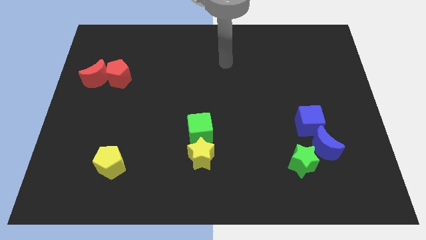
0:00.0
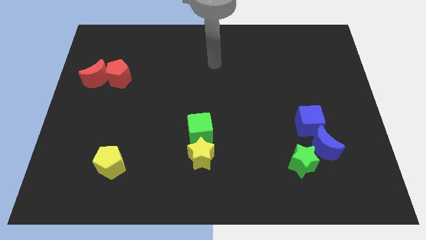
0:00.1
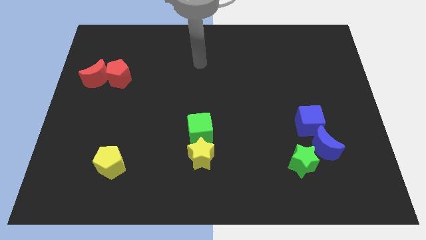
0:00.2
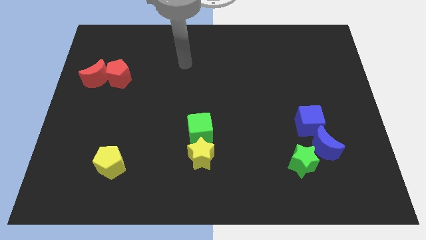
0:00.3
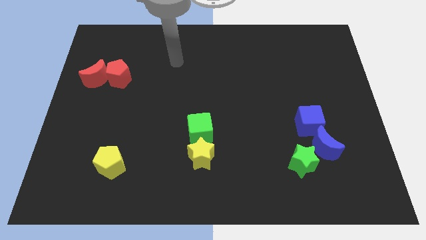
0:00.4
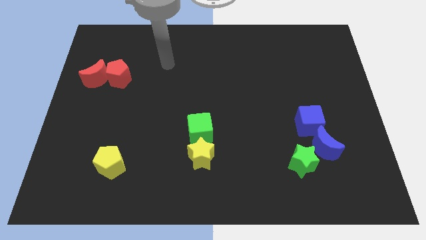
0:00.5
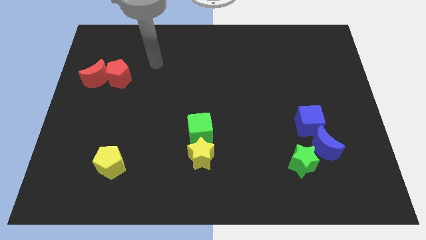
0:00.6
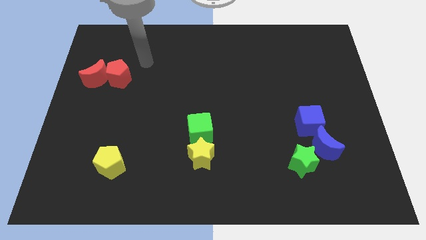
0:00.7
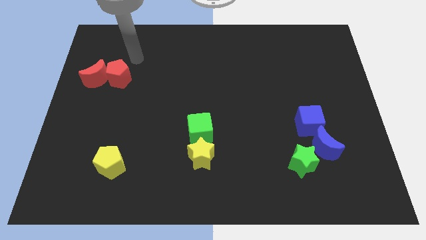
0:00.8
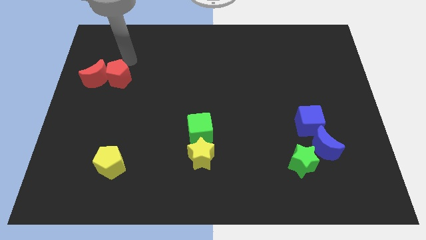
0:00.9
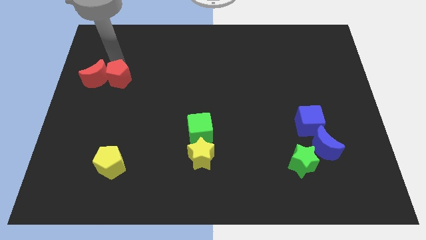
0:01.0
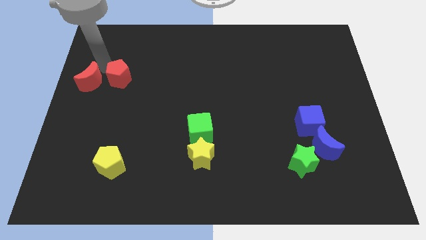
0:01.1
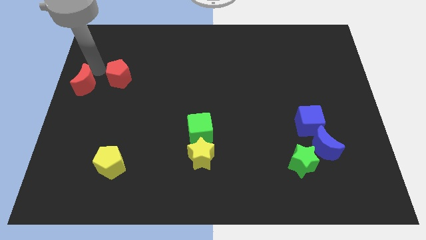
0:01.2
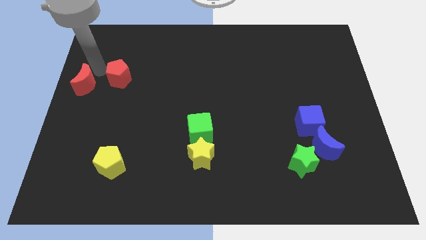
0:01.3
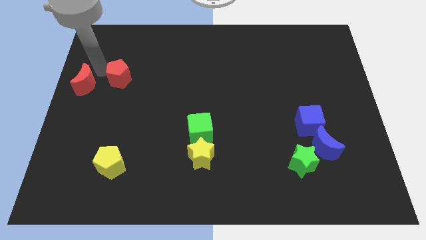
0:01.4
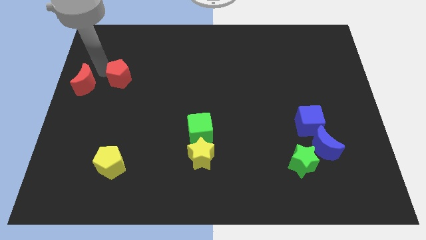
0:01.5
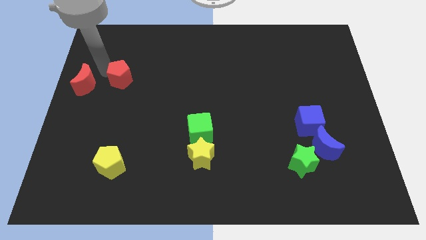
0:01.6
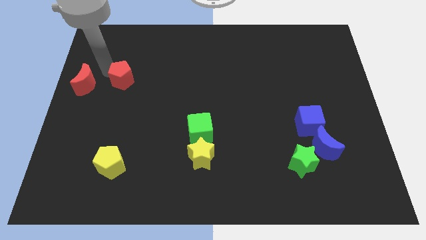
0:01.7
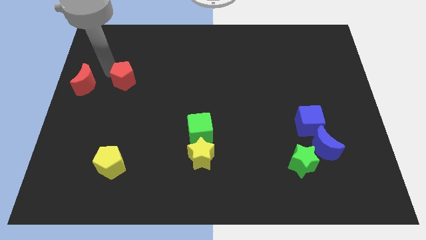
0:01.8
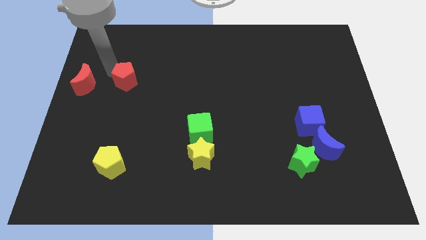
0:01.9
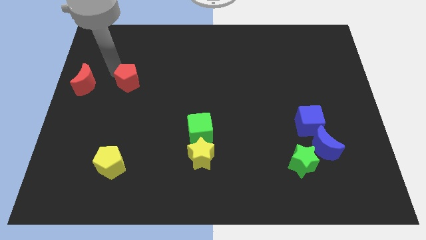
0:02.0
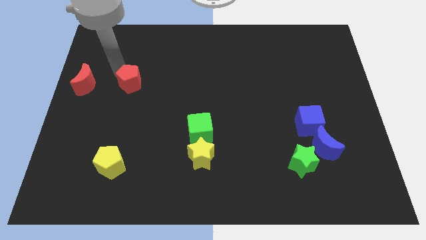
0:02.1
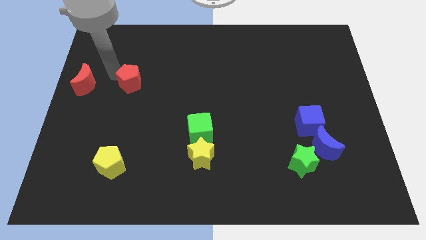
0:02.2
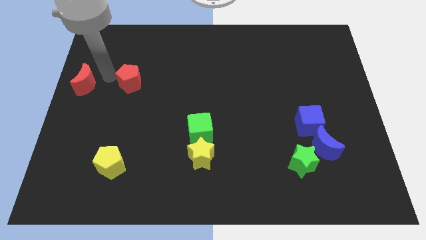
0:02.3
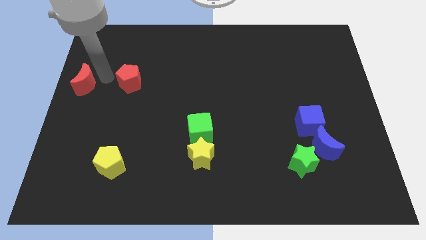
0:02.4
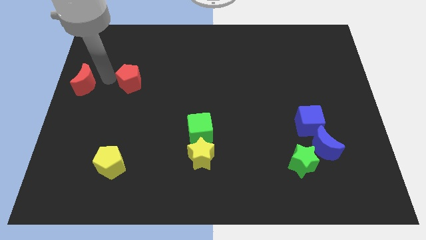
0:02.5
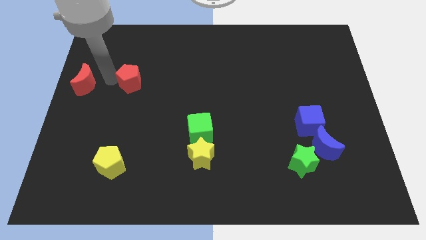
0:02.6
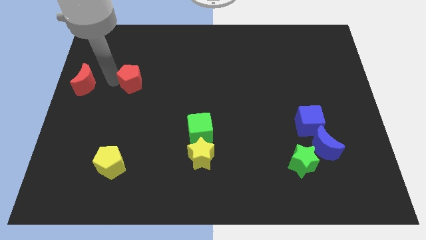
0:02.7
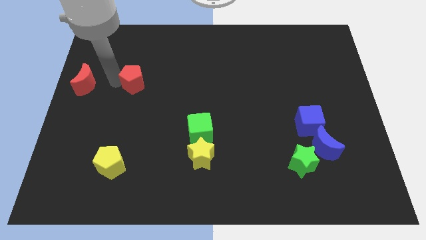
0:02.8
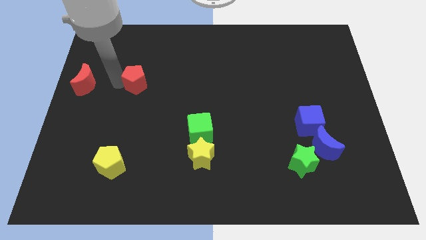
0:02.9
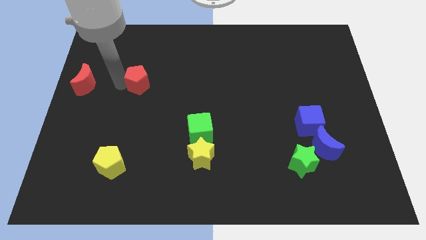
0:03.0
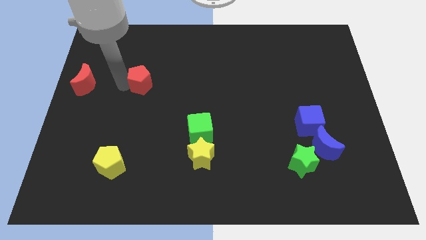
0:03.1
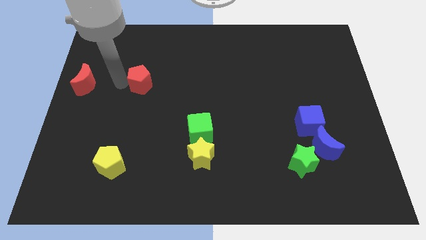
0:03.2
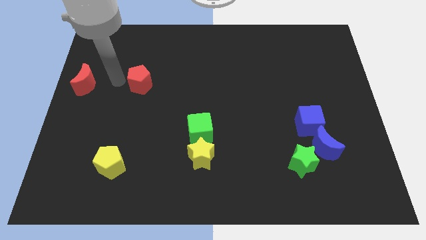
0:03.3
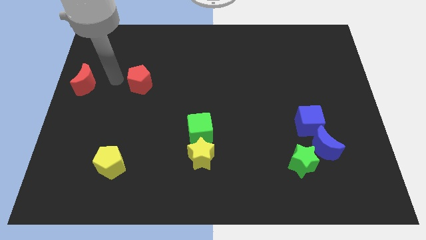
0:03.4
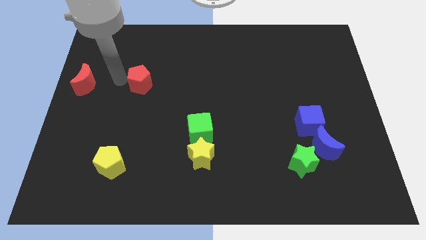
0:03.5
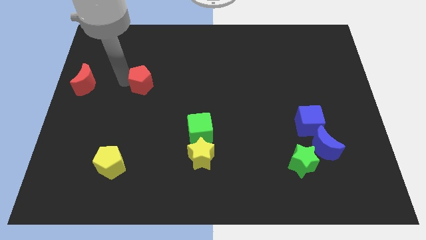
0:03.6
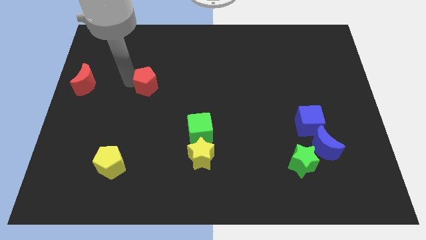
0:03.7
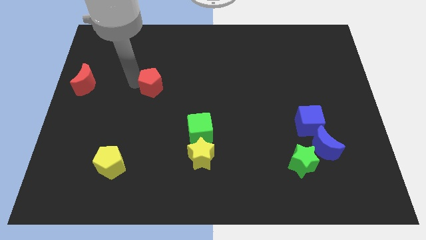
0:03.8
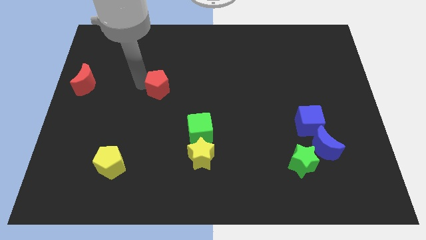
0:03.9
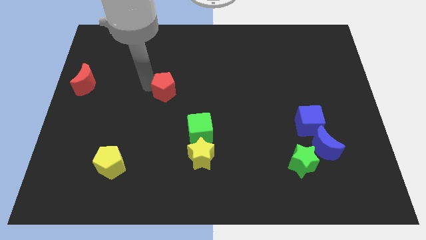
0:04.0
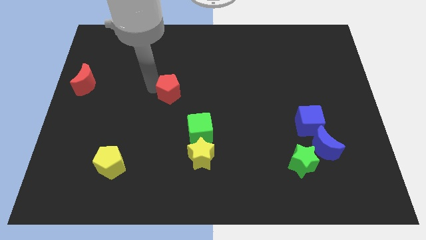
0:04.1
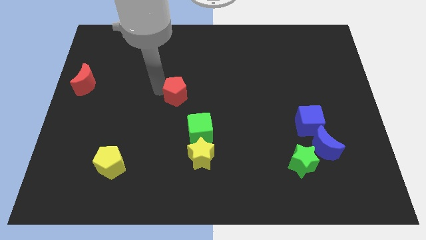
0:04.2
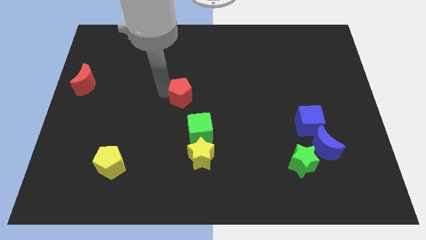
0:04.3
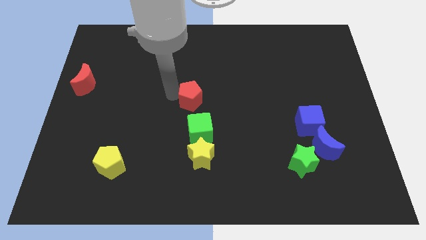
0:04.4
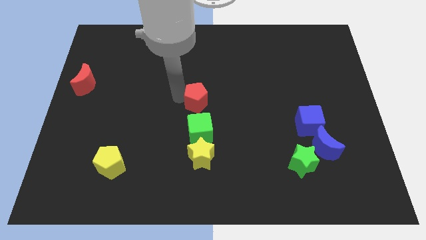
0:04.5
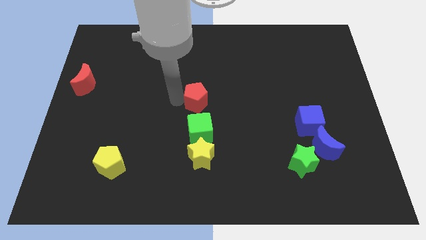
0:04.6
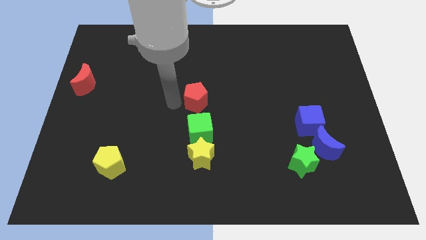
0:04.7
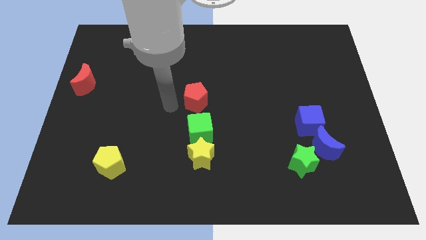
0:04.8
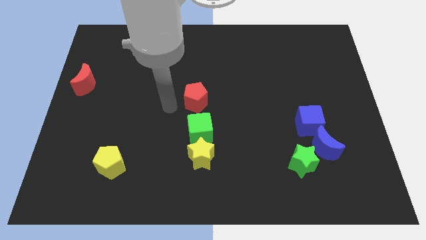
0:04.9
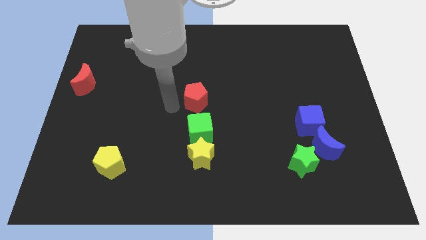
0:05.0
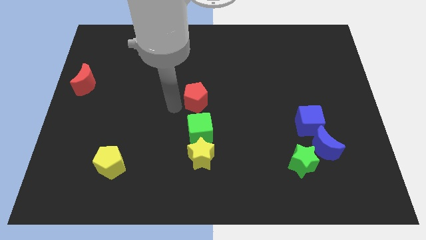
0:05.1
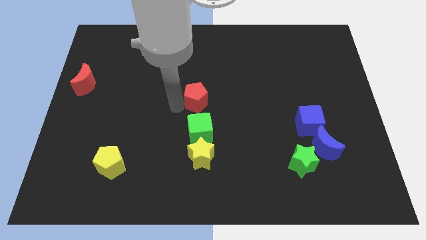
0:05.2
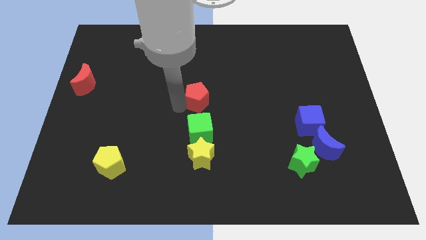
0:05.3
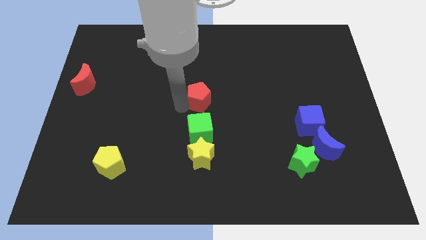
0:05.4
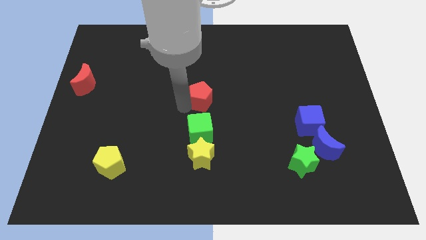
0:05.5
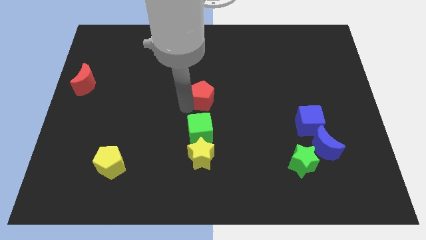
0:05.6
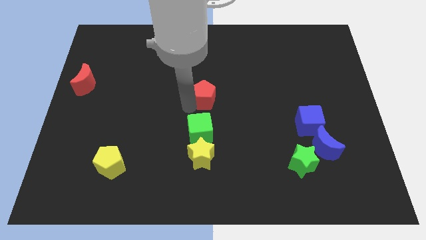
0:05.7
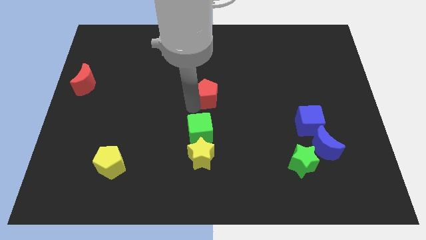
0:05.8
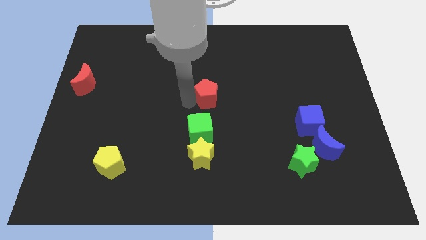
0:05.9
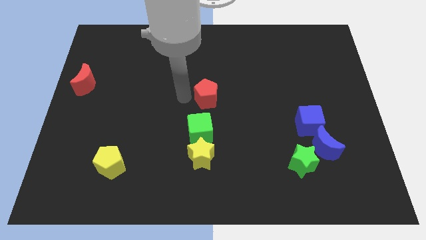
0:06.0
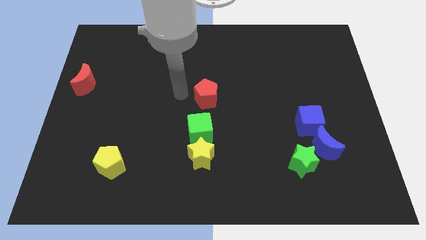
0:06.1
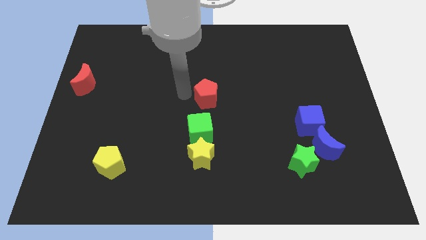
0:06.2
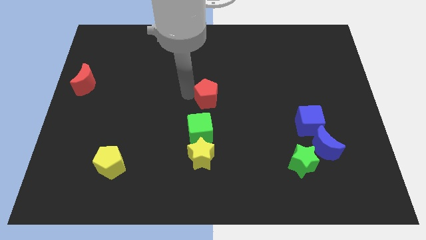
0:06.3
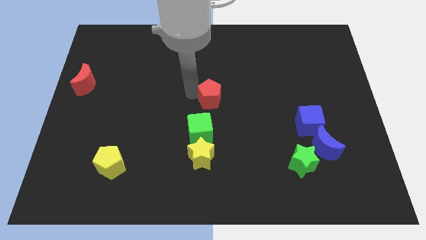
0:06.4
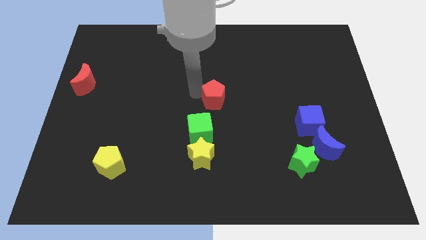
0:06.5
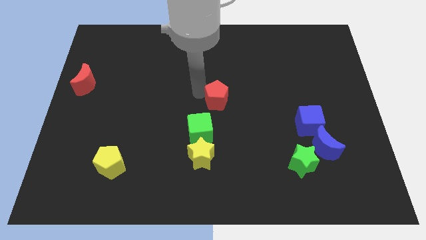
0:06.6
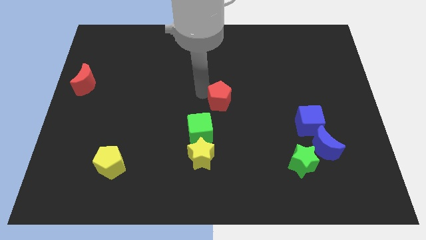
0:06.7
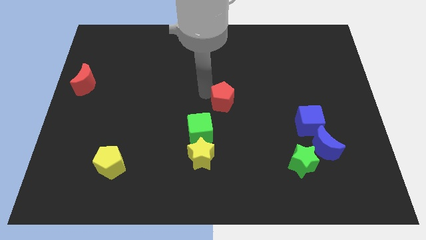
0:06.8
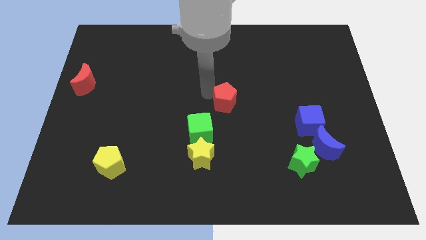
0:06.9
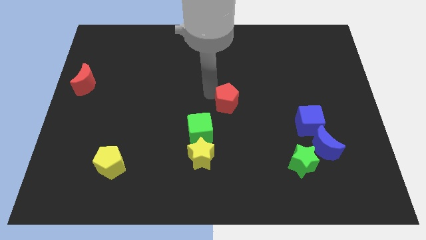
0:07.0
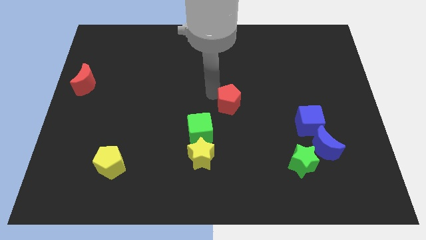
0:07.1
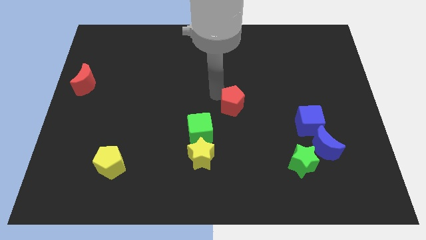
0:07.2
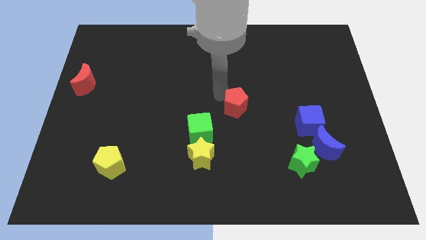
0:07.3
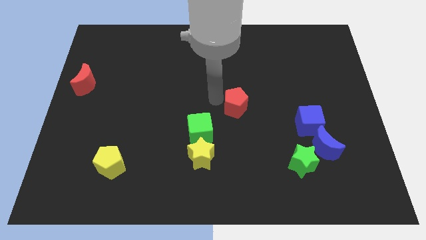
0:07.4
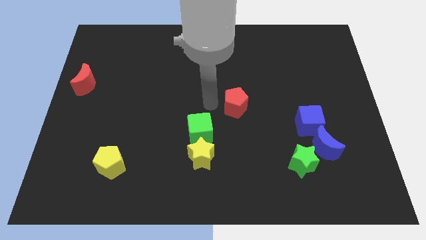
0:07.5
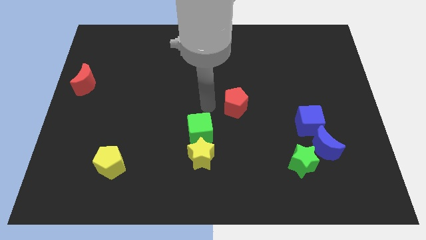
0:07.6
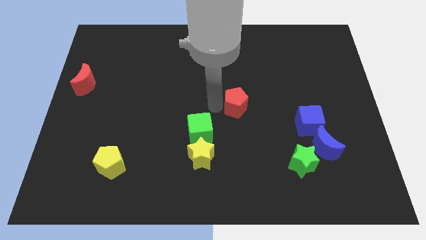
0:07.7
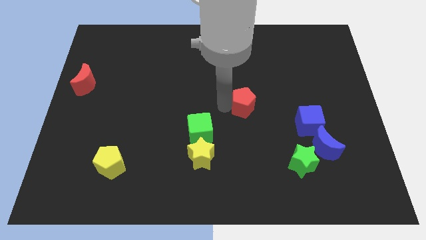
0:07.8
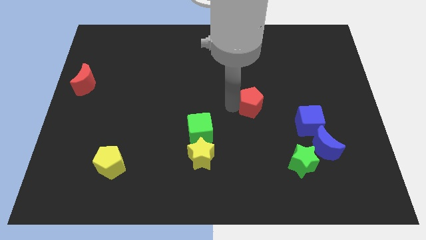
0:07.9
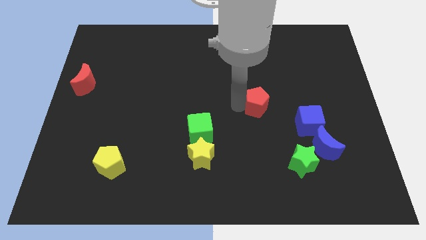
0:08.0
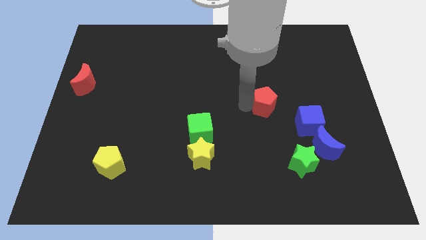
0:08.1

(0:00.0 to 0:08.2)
move the red pentagon to the top left side of the blue cube
